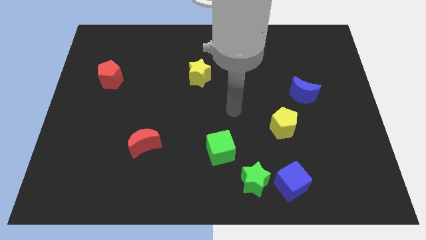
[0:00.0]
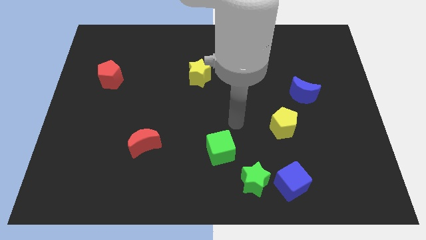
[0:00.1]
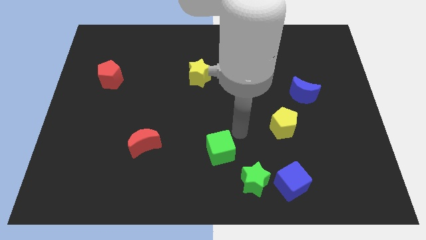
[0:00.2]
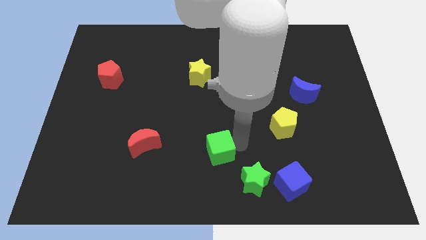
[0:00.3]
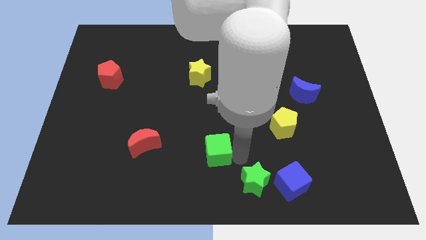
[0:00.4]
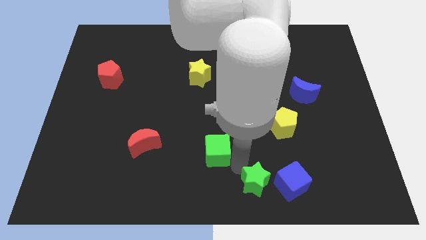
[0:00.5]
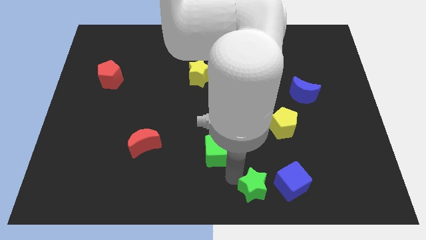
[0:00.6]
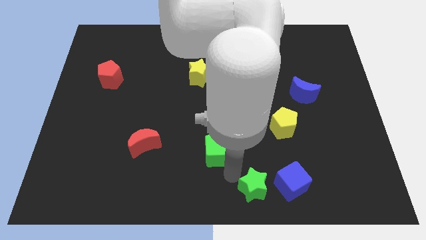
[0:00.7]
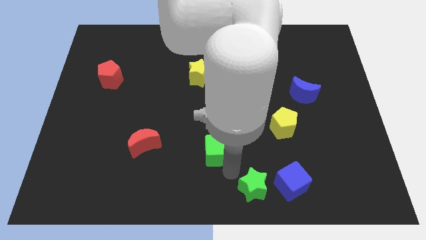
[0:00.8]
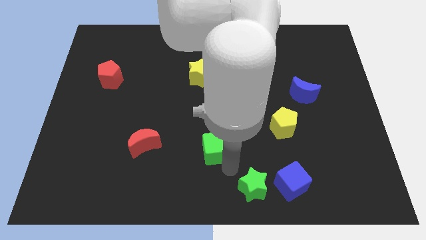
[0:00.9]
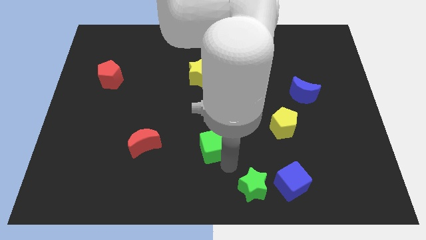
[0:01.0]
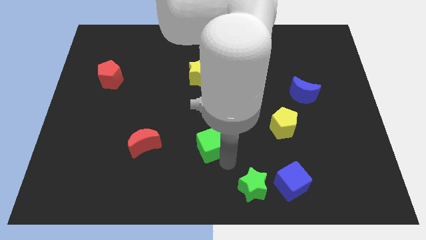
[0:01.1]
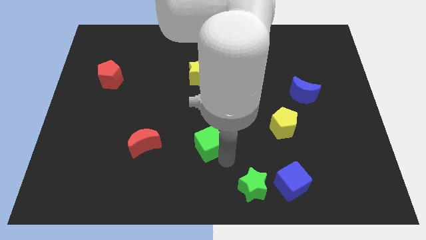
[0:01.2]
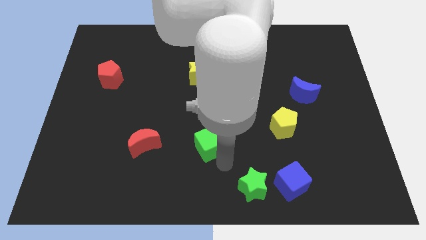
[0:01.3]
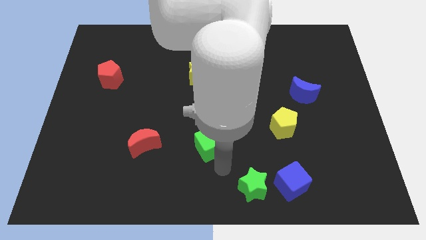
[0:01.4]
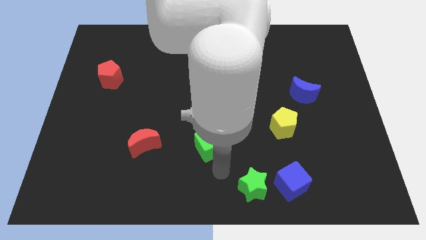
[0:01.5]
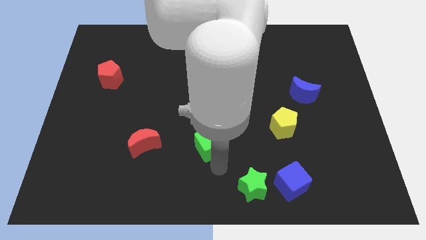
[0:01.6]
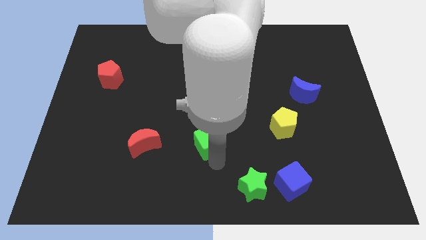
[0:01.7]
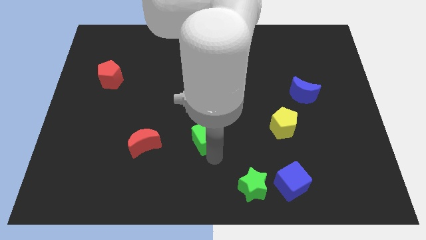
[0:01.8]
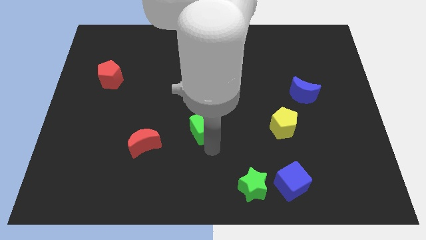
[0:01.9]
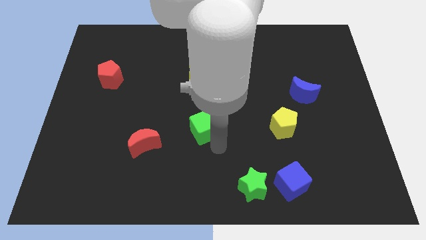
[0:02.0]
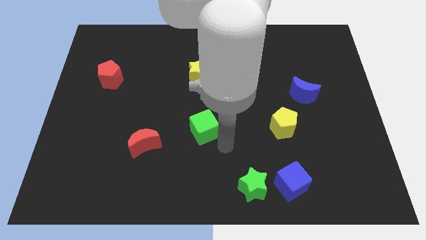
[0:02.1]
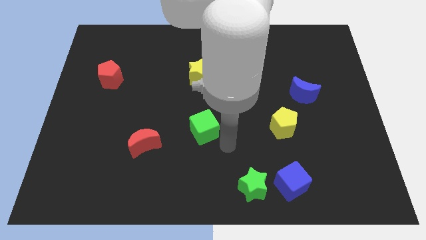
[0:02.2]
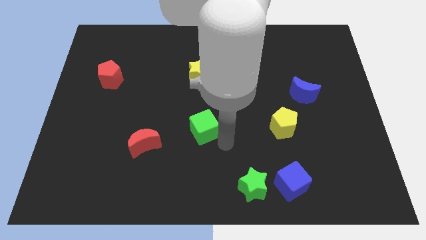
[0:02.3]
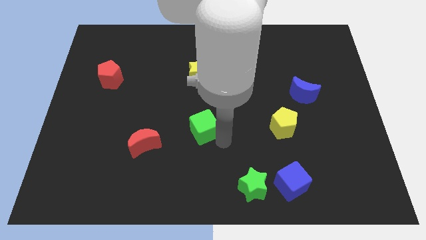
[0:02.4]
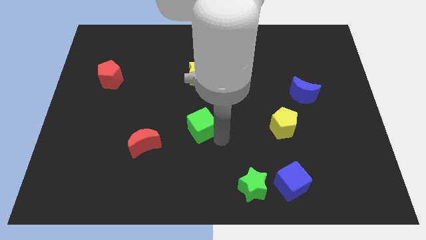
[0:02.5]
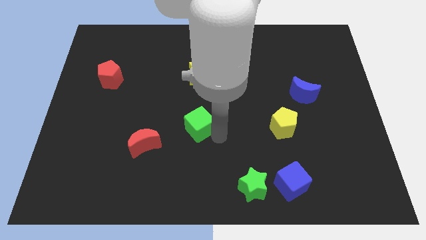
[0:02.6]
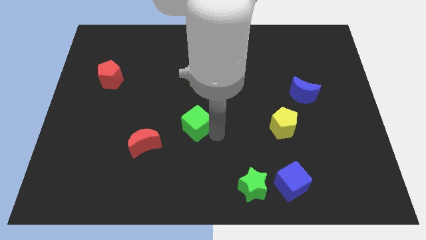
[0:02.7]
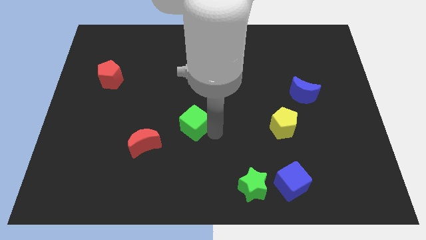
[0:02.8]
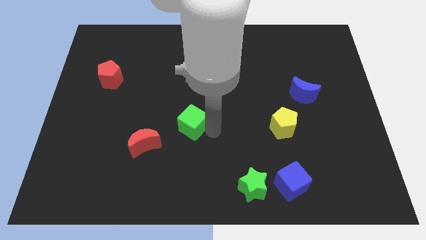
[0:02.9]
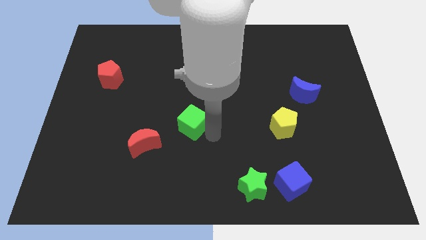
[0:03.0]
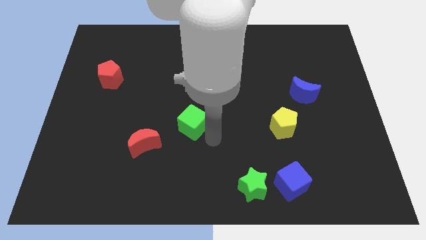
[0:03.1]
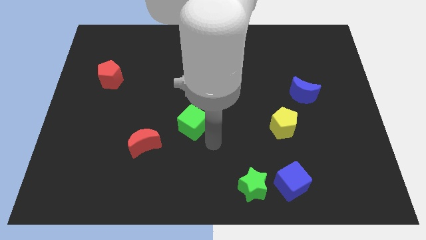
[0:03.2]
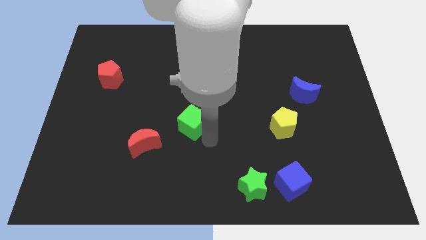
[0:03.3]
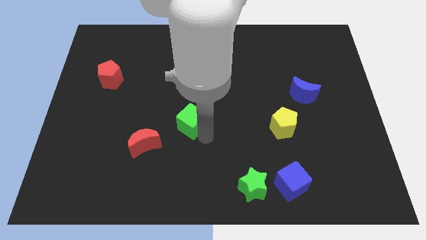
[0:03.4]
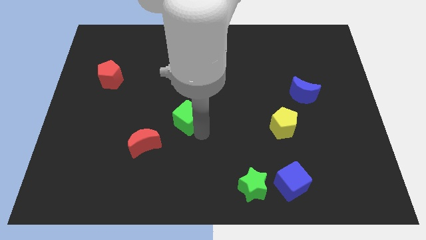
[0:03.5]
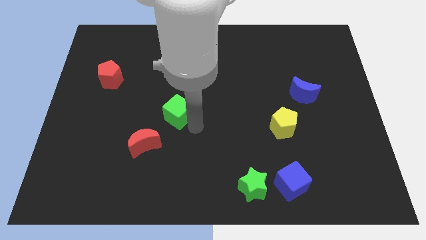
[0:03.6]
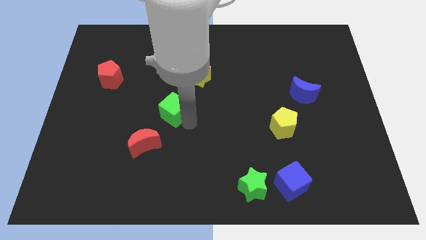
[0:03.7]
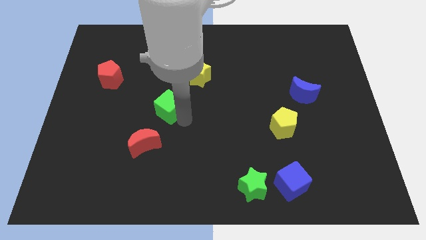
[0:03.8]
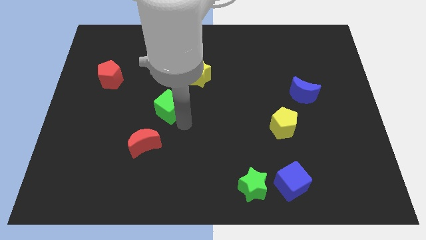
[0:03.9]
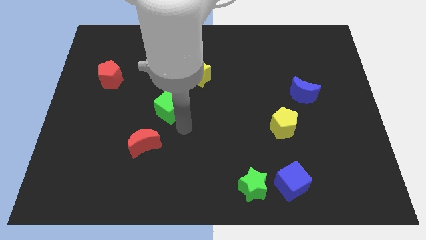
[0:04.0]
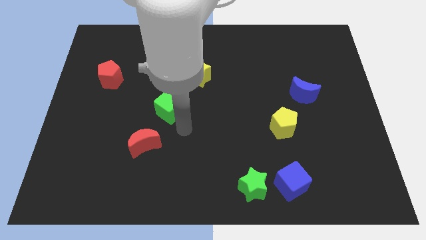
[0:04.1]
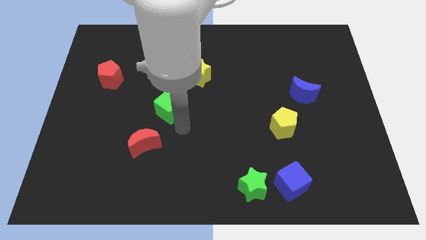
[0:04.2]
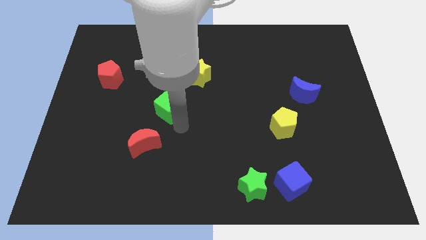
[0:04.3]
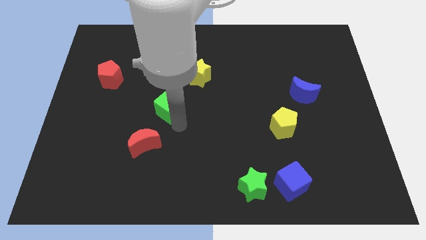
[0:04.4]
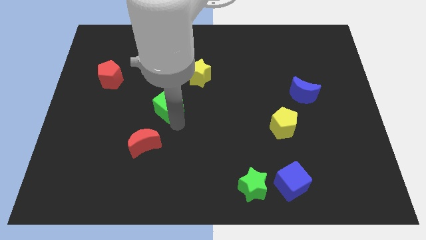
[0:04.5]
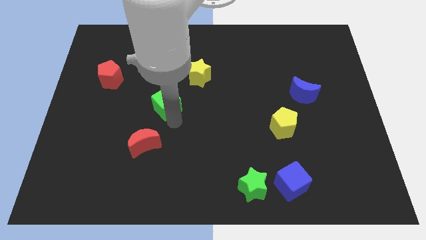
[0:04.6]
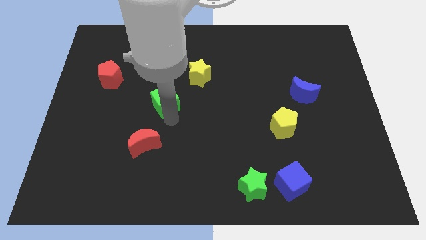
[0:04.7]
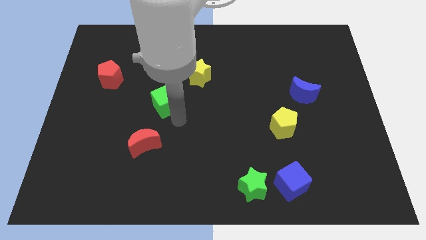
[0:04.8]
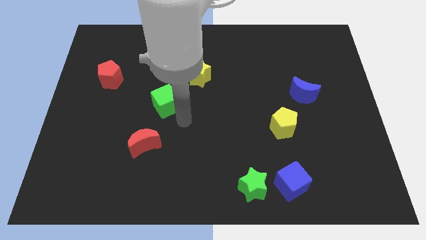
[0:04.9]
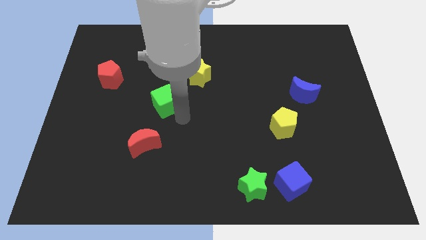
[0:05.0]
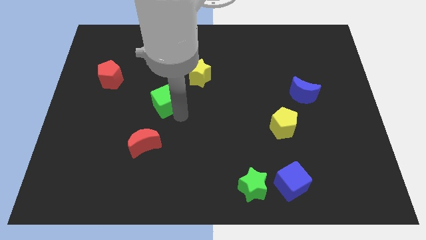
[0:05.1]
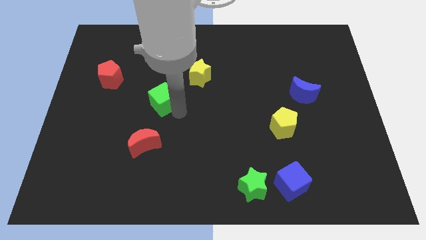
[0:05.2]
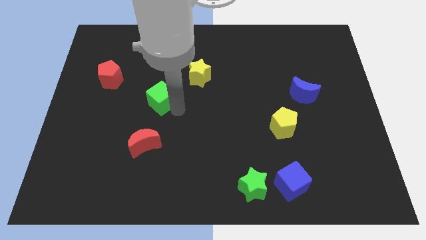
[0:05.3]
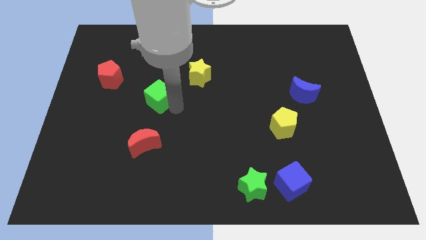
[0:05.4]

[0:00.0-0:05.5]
slide the green cube upwards and then to the left

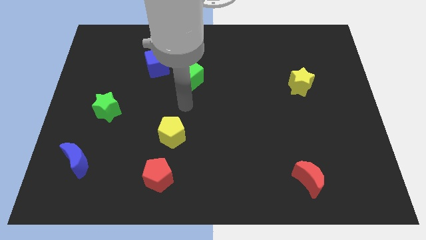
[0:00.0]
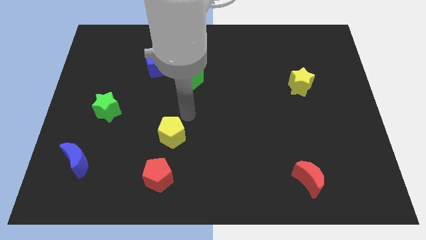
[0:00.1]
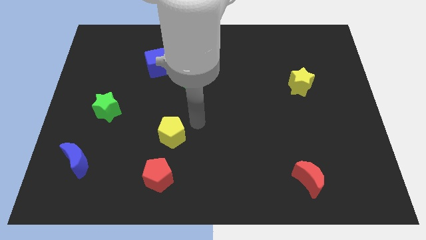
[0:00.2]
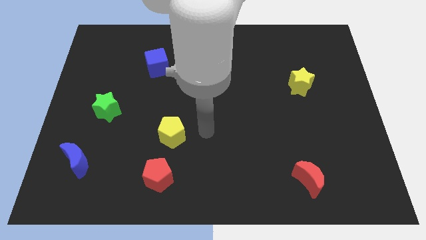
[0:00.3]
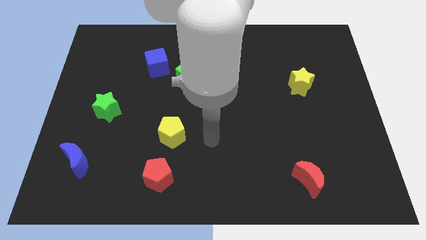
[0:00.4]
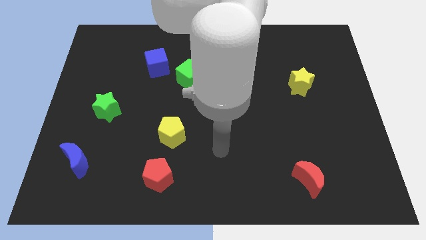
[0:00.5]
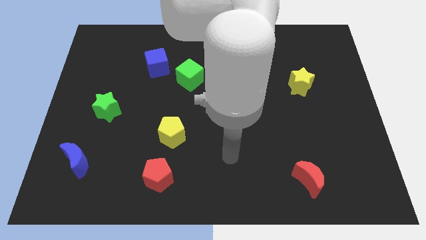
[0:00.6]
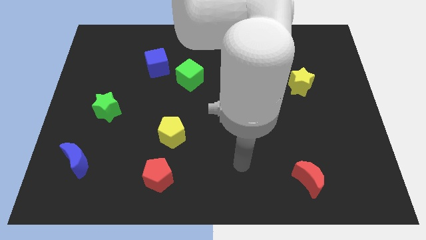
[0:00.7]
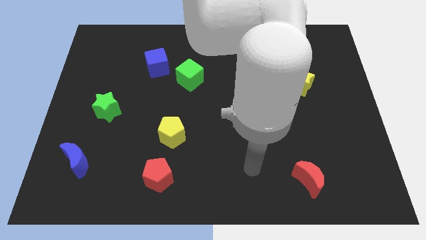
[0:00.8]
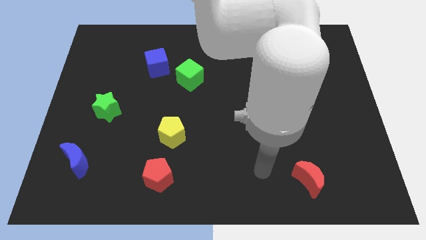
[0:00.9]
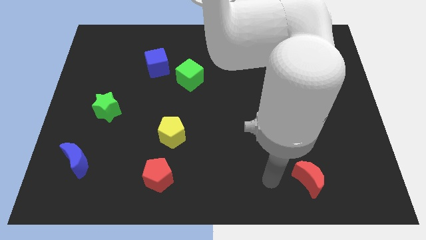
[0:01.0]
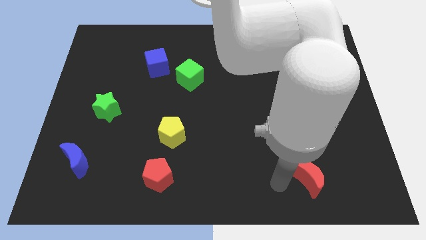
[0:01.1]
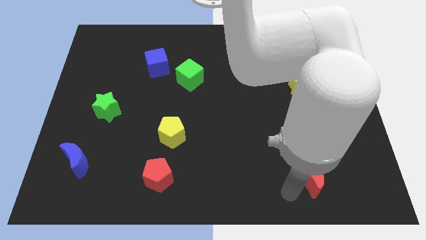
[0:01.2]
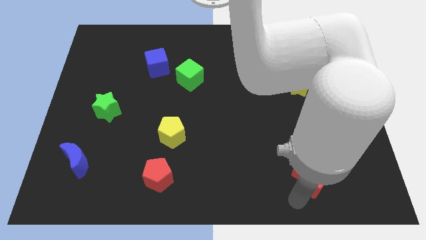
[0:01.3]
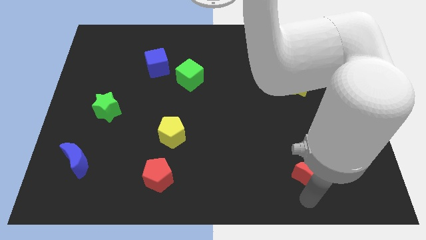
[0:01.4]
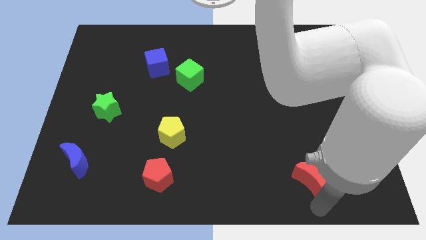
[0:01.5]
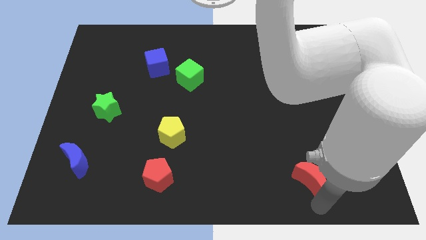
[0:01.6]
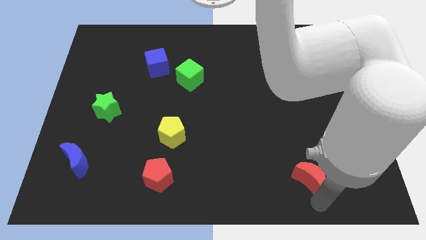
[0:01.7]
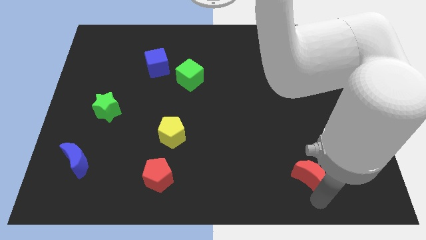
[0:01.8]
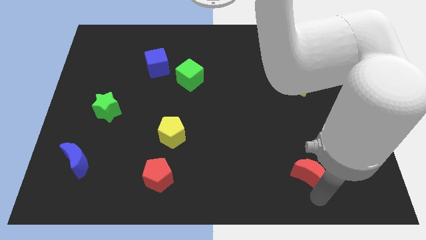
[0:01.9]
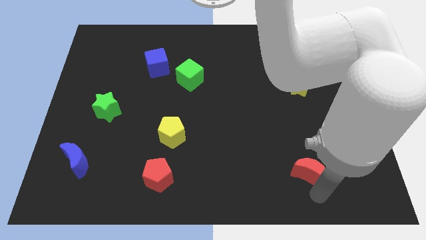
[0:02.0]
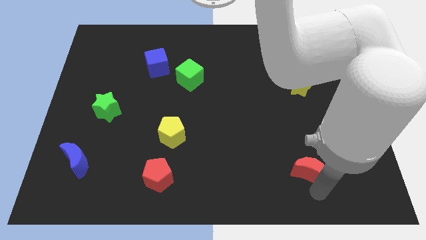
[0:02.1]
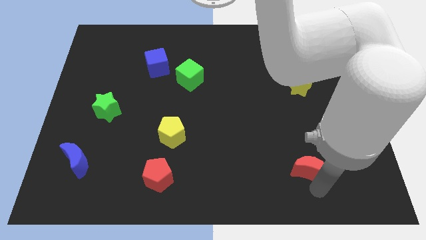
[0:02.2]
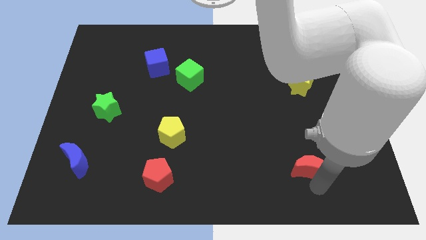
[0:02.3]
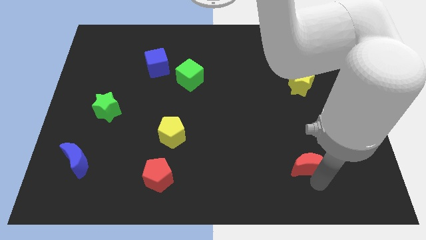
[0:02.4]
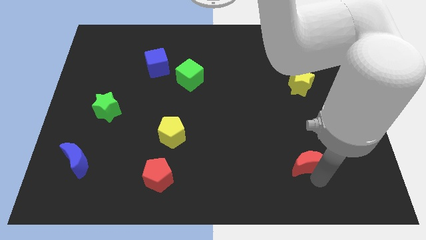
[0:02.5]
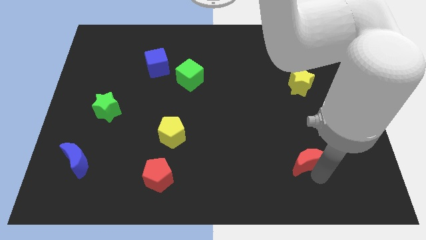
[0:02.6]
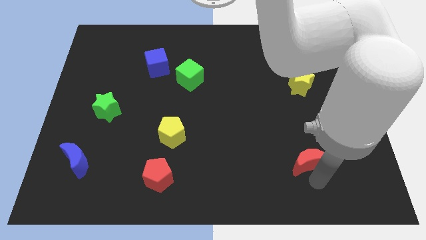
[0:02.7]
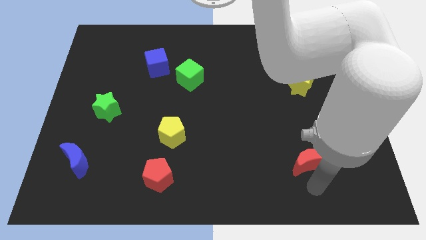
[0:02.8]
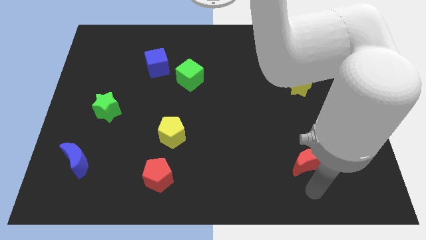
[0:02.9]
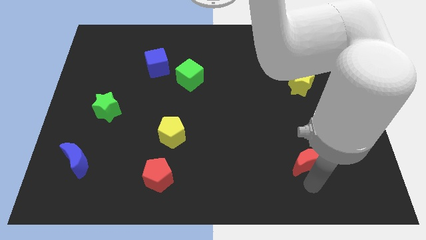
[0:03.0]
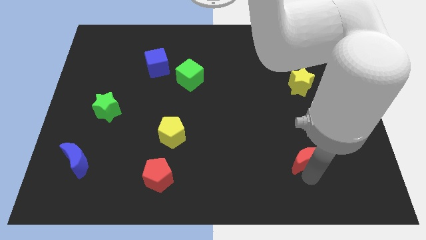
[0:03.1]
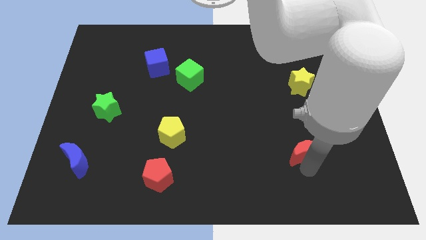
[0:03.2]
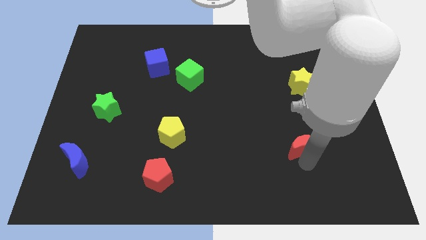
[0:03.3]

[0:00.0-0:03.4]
slightly push the red moon up
